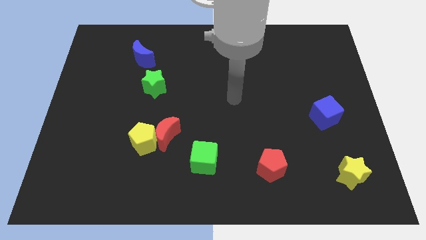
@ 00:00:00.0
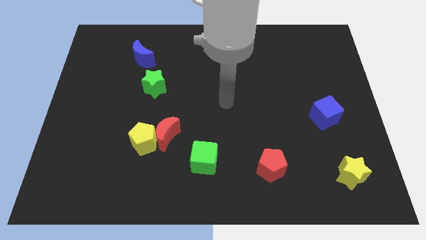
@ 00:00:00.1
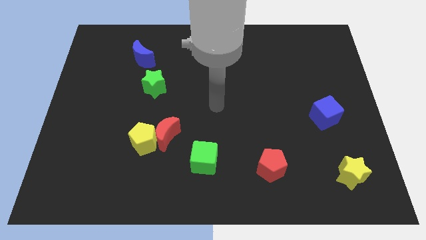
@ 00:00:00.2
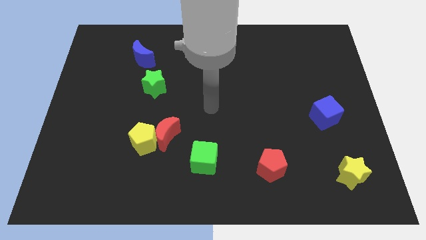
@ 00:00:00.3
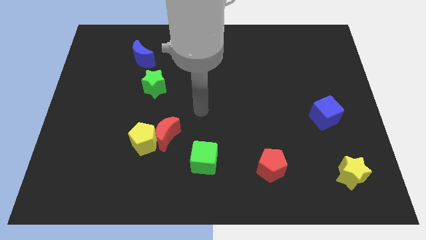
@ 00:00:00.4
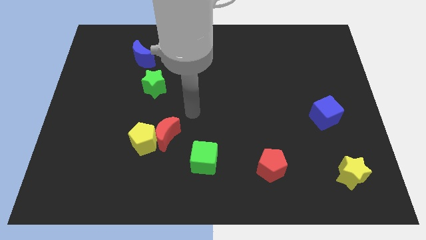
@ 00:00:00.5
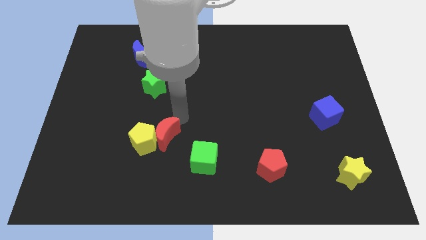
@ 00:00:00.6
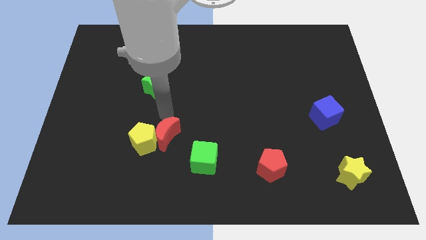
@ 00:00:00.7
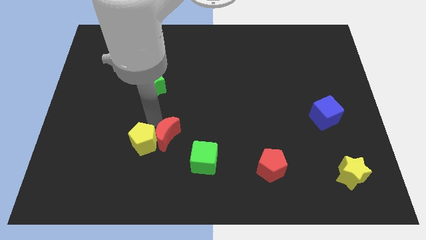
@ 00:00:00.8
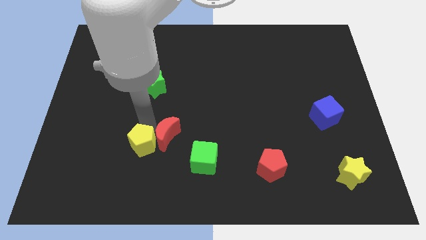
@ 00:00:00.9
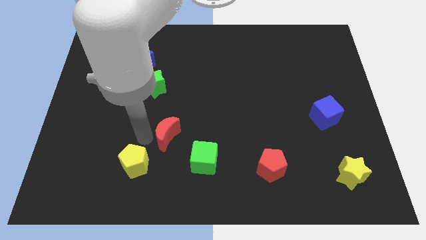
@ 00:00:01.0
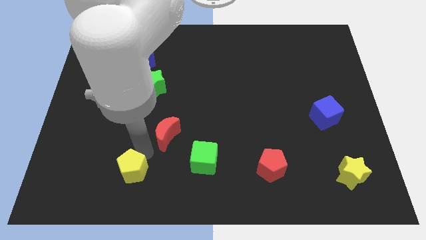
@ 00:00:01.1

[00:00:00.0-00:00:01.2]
move the red moon away from the yellow pentagon

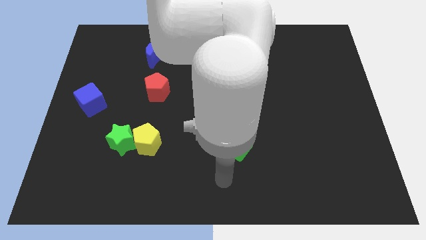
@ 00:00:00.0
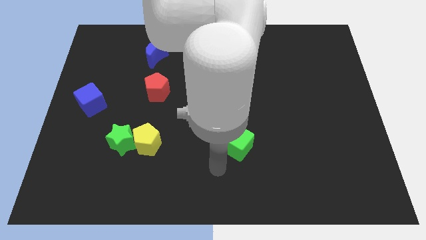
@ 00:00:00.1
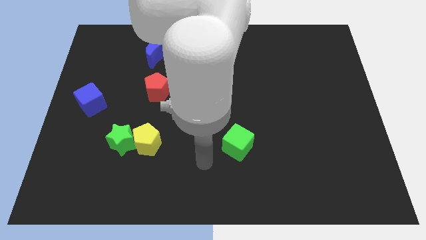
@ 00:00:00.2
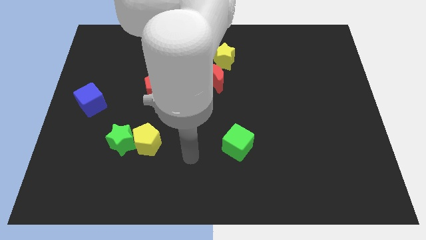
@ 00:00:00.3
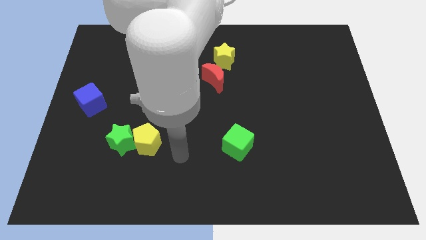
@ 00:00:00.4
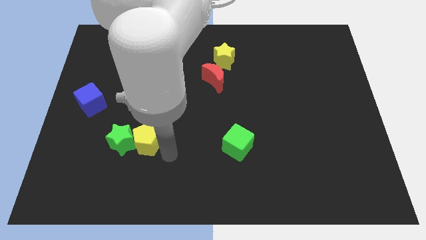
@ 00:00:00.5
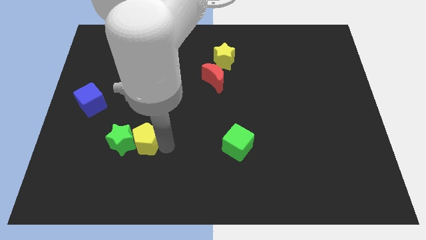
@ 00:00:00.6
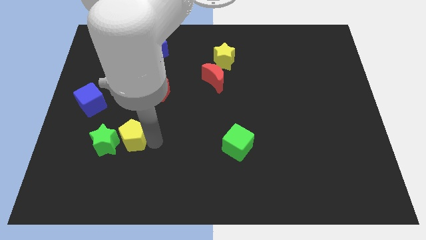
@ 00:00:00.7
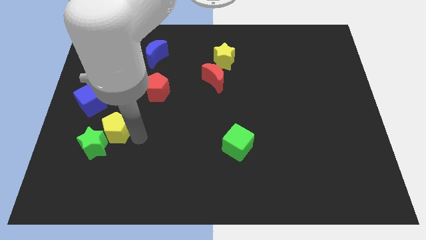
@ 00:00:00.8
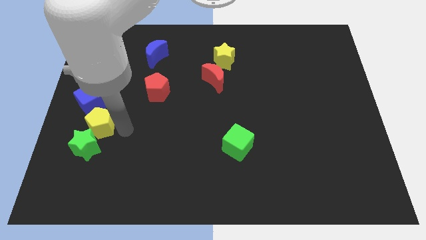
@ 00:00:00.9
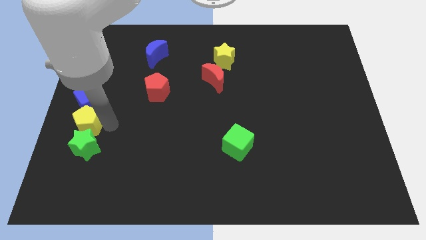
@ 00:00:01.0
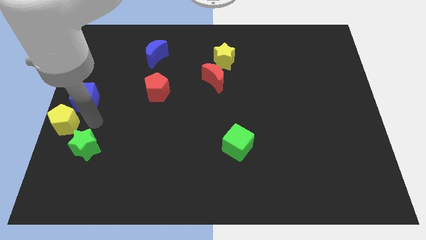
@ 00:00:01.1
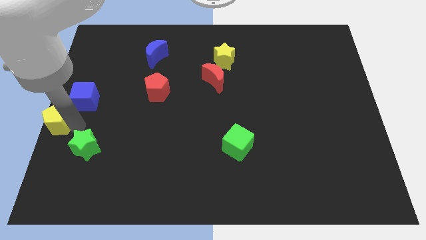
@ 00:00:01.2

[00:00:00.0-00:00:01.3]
move the green star away from the yellow pentagon

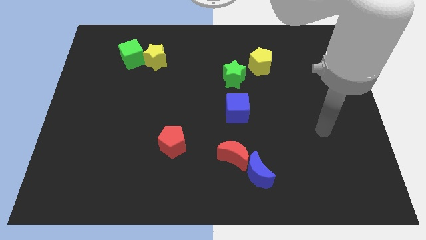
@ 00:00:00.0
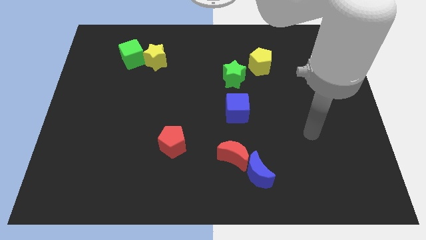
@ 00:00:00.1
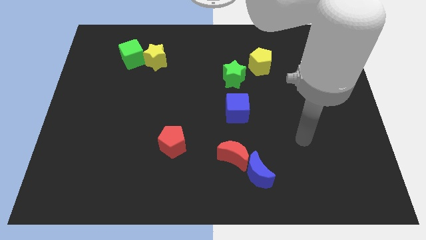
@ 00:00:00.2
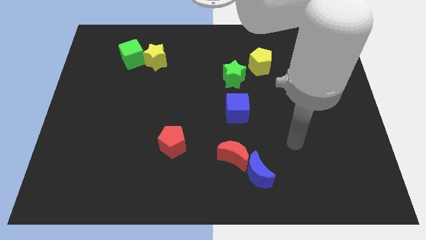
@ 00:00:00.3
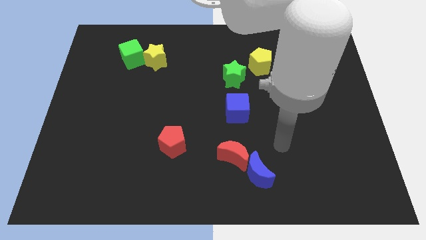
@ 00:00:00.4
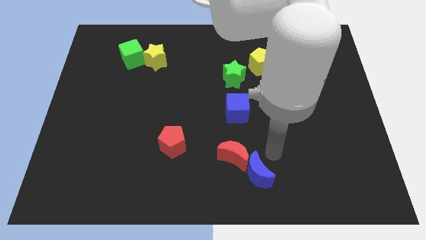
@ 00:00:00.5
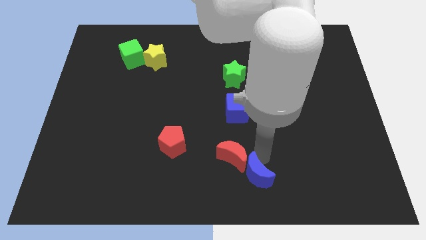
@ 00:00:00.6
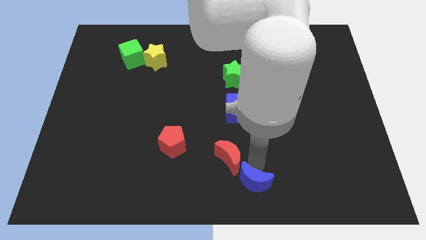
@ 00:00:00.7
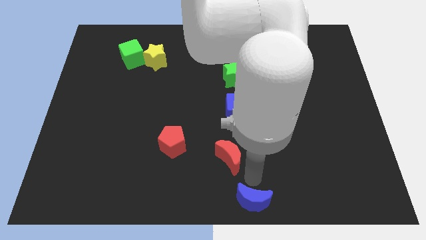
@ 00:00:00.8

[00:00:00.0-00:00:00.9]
pull the red moon apart from the blue moon

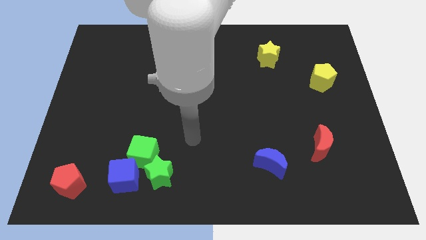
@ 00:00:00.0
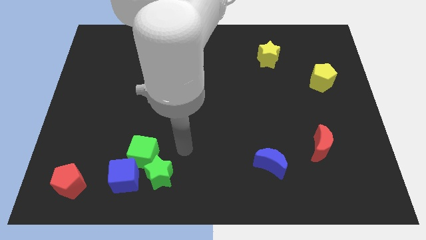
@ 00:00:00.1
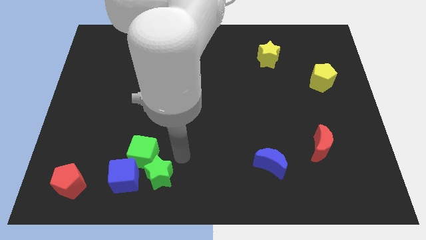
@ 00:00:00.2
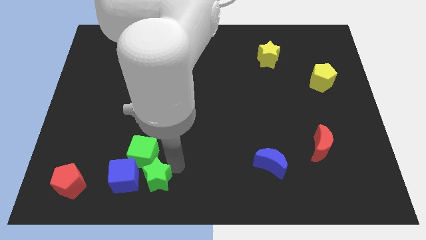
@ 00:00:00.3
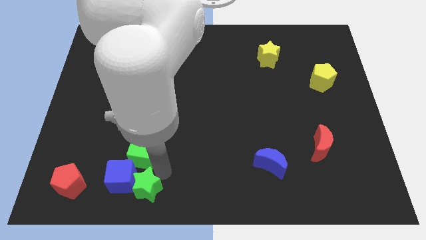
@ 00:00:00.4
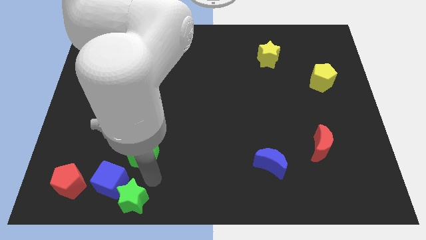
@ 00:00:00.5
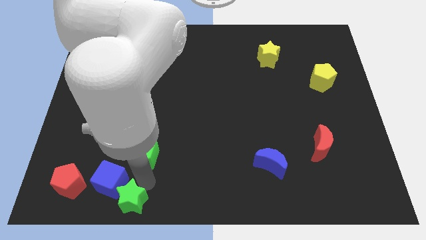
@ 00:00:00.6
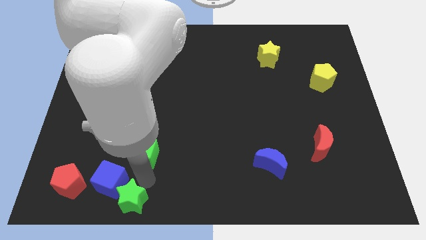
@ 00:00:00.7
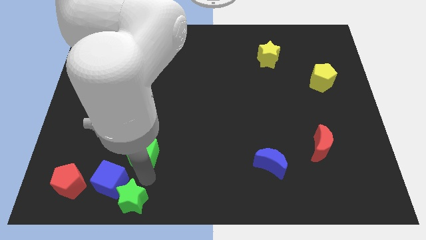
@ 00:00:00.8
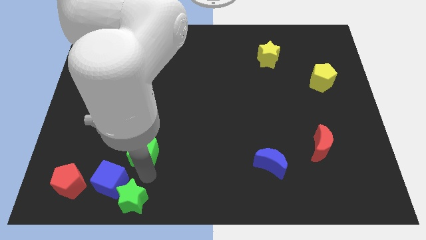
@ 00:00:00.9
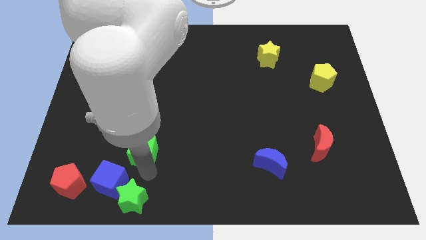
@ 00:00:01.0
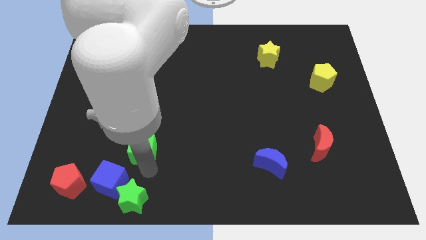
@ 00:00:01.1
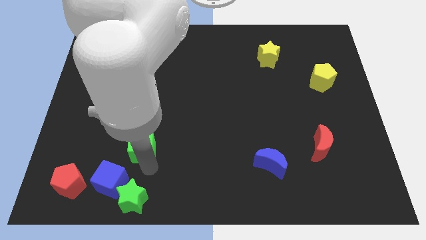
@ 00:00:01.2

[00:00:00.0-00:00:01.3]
separate the green cube from the green star and blue cube

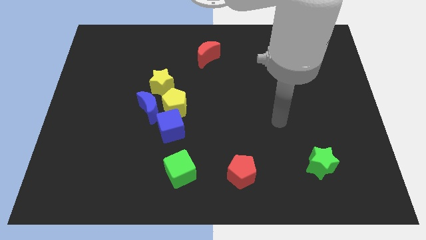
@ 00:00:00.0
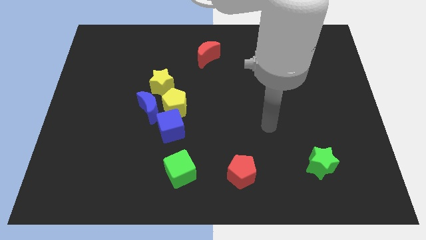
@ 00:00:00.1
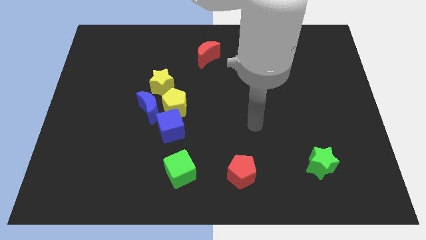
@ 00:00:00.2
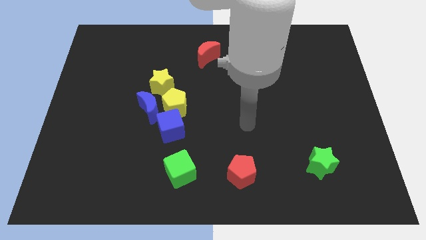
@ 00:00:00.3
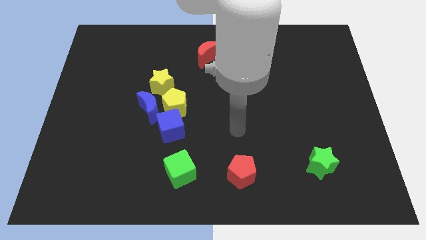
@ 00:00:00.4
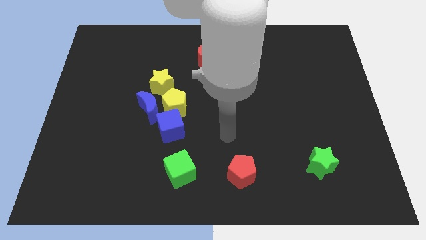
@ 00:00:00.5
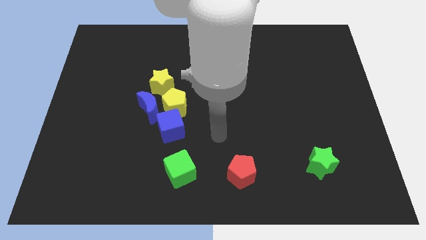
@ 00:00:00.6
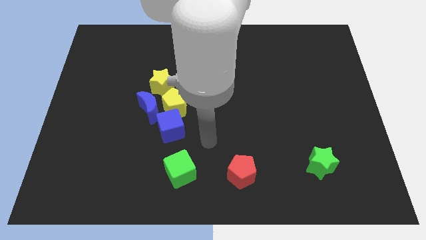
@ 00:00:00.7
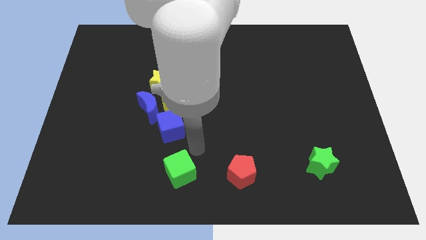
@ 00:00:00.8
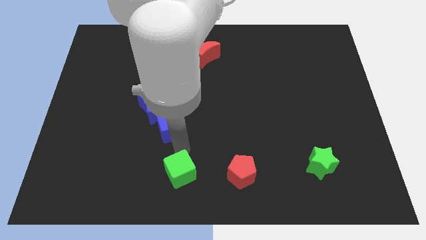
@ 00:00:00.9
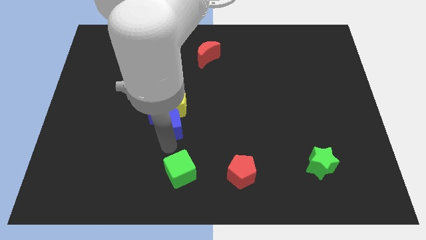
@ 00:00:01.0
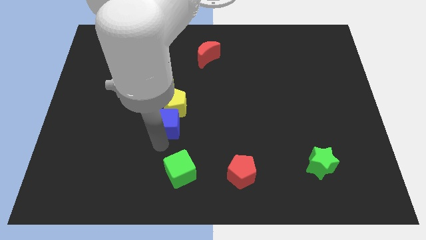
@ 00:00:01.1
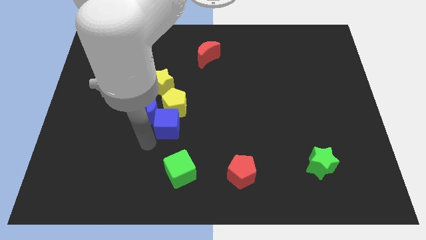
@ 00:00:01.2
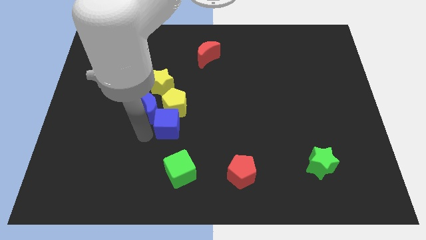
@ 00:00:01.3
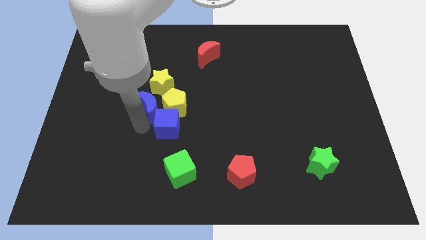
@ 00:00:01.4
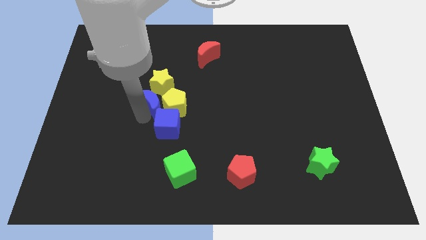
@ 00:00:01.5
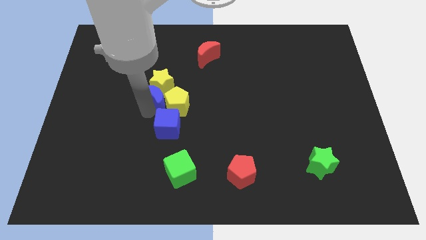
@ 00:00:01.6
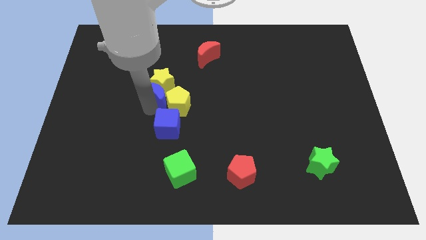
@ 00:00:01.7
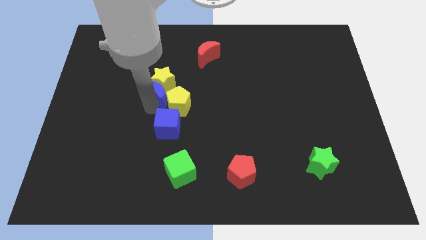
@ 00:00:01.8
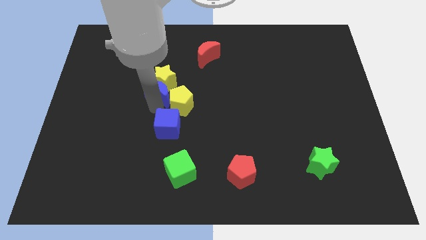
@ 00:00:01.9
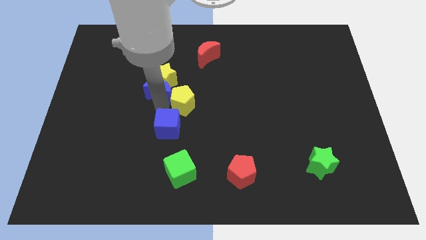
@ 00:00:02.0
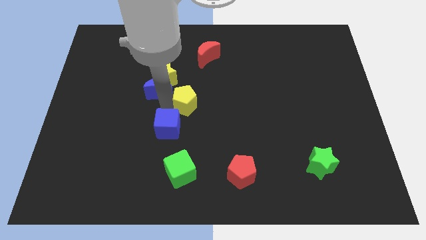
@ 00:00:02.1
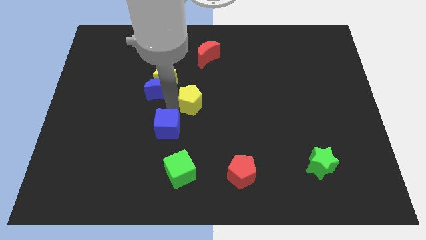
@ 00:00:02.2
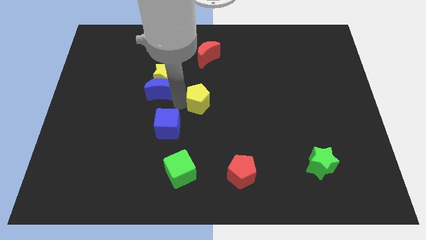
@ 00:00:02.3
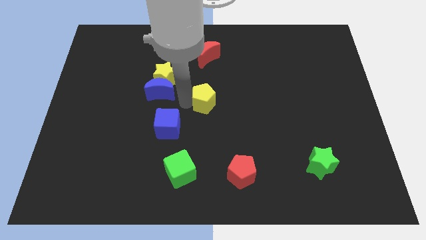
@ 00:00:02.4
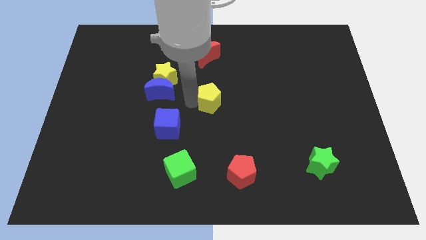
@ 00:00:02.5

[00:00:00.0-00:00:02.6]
pull the yellow pentagon apart from the blue moon, blue cube, and yellow star

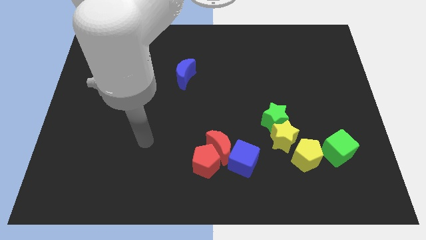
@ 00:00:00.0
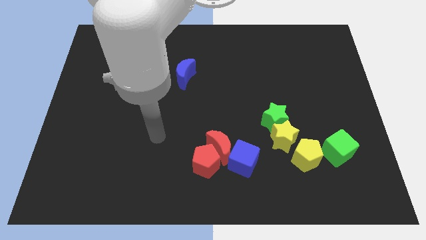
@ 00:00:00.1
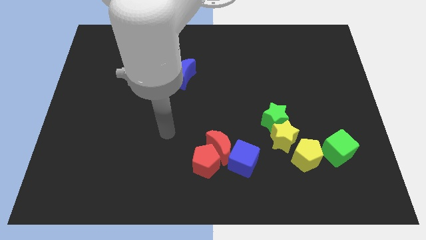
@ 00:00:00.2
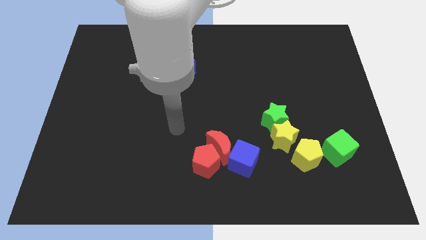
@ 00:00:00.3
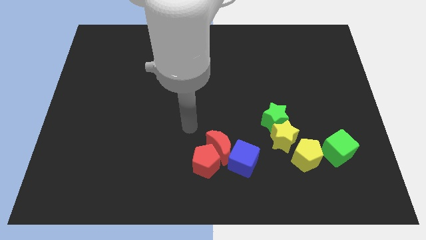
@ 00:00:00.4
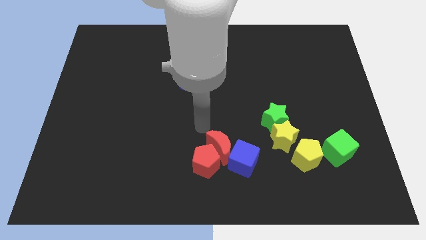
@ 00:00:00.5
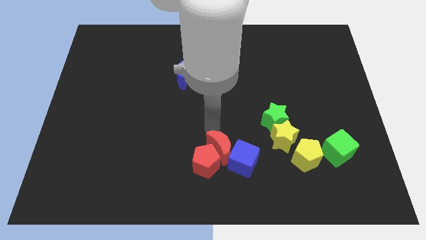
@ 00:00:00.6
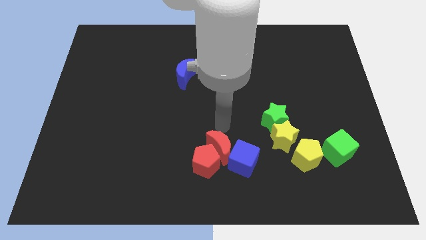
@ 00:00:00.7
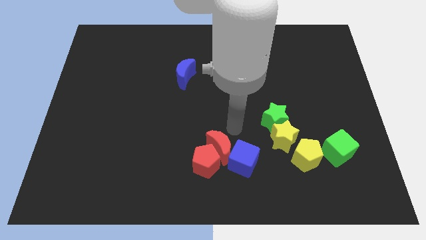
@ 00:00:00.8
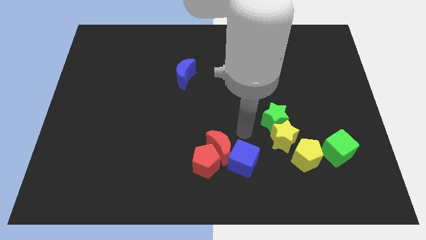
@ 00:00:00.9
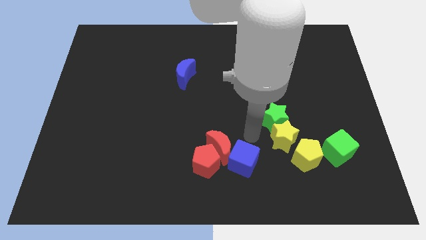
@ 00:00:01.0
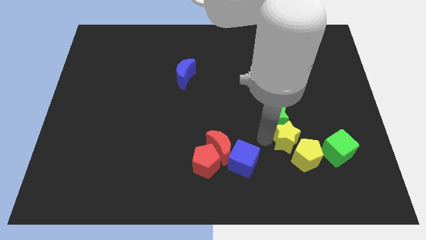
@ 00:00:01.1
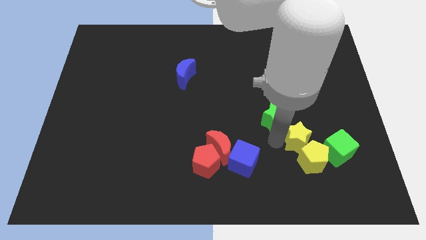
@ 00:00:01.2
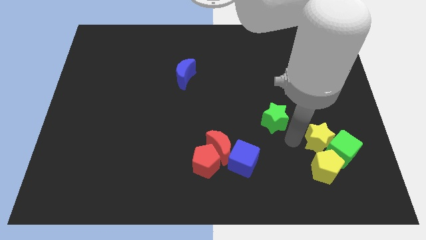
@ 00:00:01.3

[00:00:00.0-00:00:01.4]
move the green star away from the yellow star

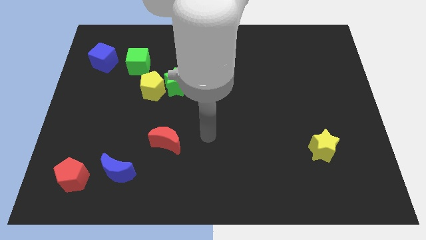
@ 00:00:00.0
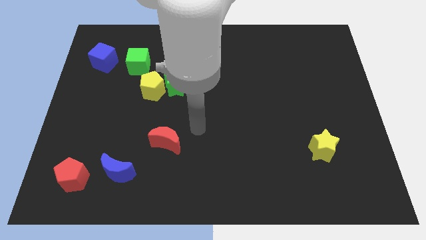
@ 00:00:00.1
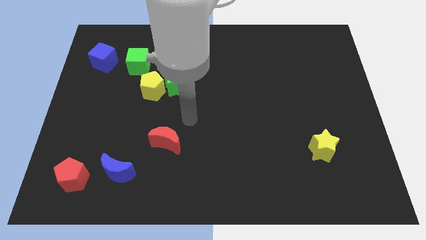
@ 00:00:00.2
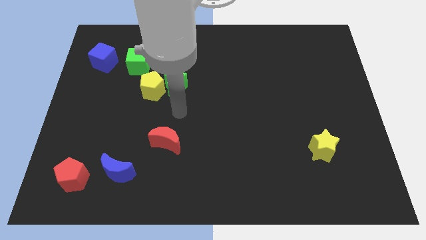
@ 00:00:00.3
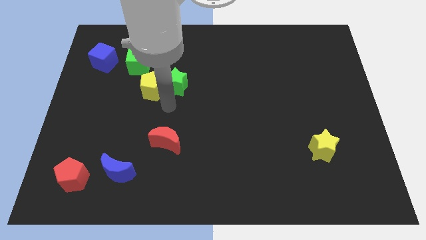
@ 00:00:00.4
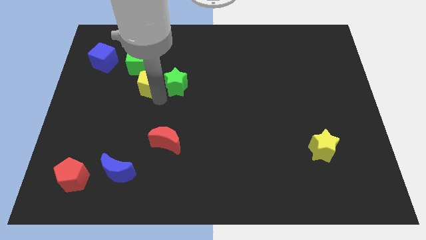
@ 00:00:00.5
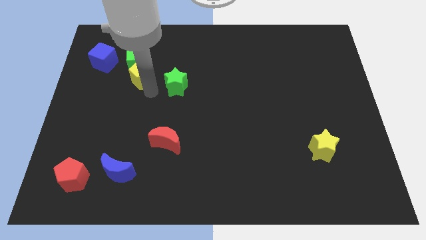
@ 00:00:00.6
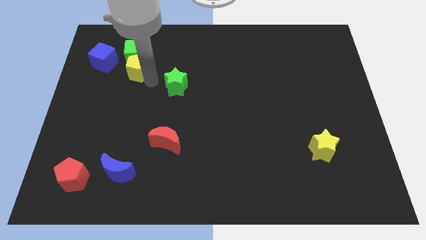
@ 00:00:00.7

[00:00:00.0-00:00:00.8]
pull the green star apart from the yellow pentagon
